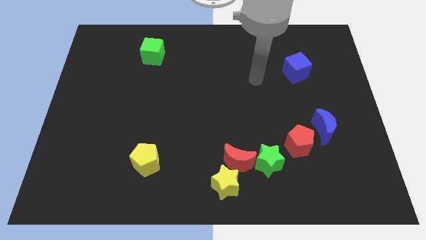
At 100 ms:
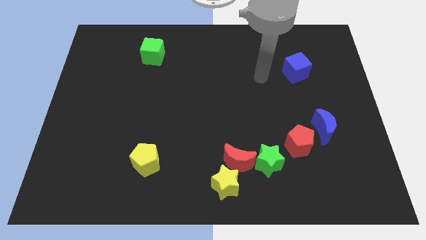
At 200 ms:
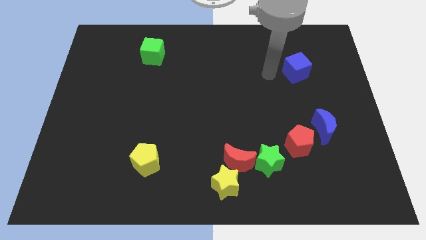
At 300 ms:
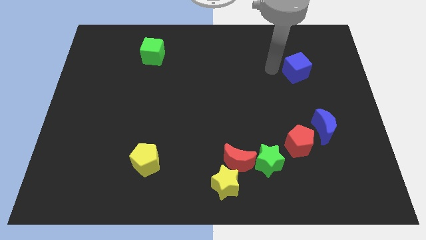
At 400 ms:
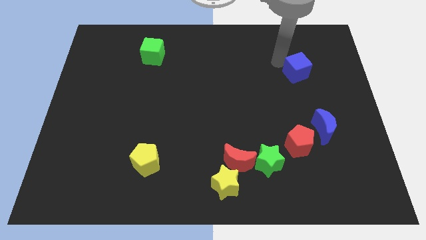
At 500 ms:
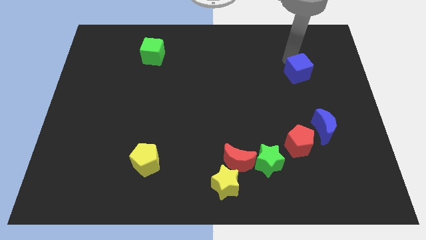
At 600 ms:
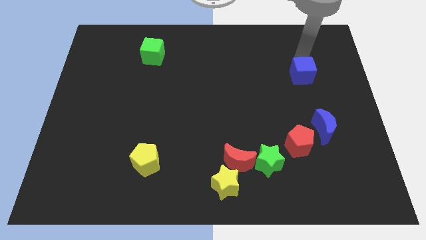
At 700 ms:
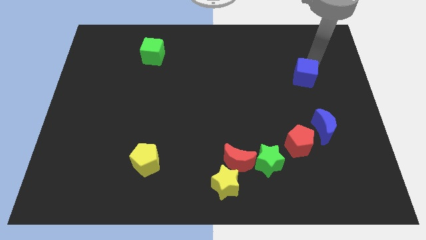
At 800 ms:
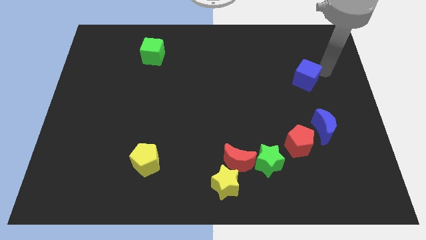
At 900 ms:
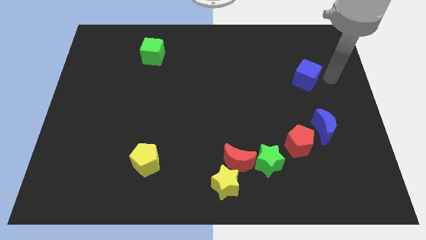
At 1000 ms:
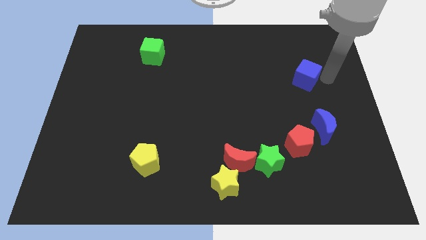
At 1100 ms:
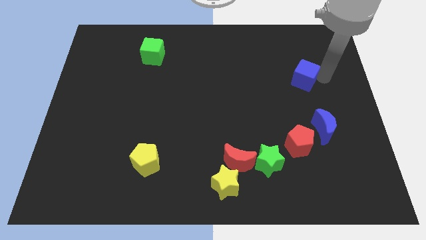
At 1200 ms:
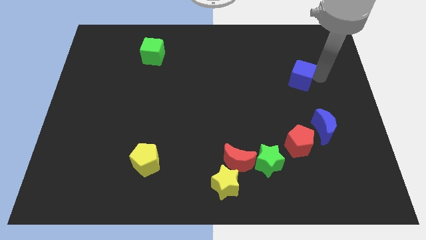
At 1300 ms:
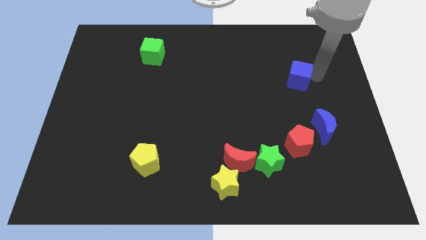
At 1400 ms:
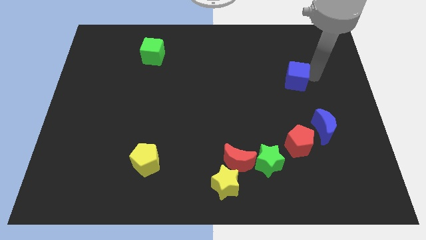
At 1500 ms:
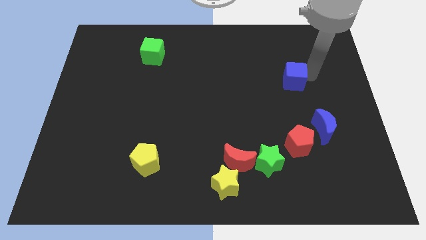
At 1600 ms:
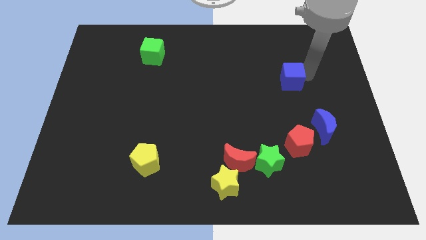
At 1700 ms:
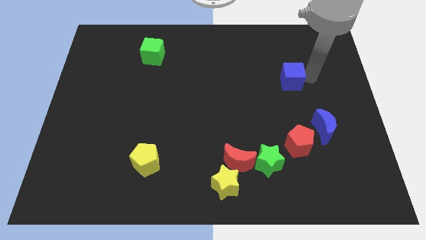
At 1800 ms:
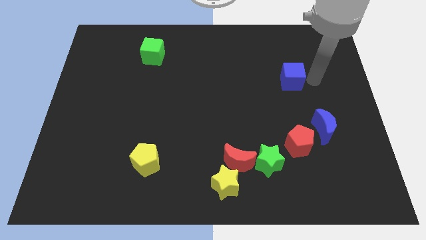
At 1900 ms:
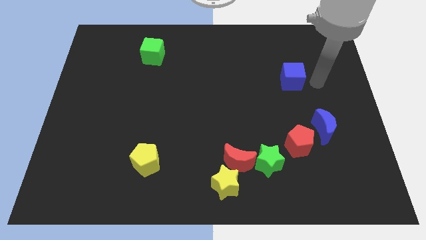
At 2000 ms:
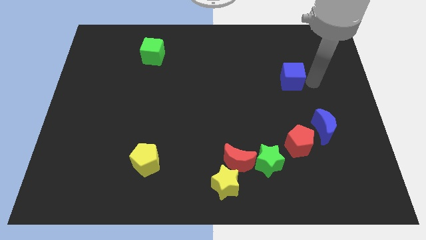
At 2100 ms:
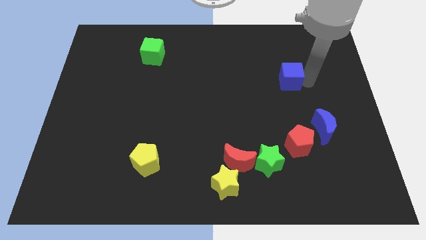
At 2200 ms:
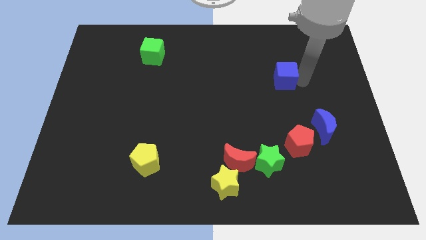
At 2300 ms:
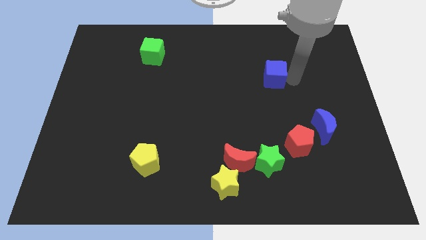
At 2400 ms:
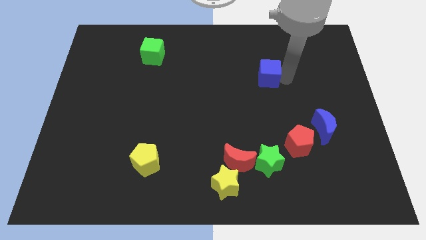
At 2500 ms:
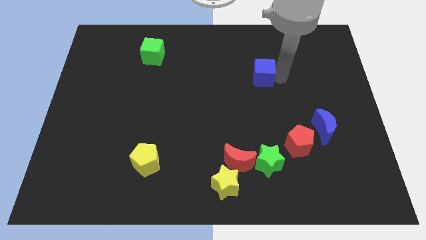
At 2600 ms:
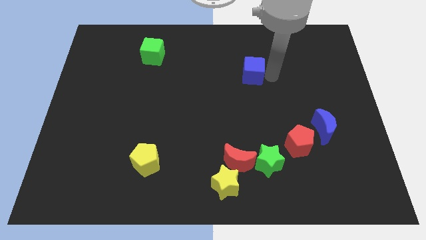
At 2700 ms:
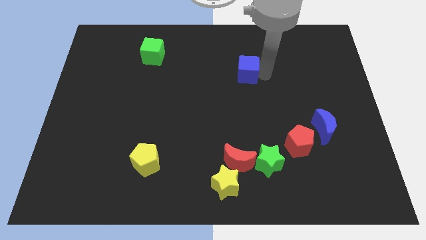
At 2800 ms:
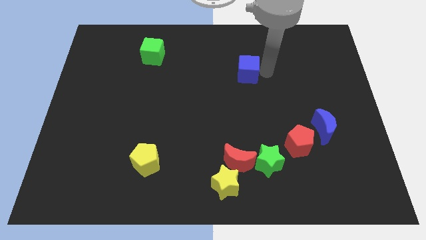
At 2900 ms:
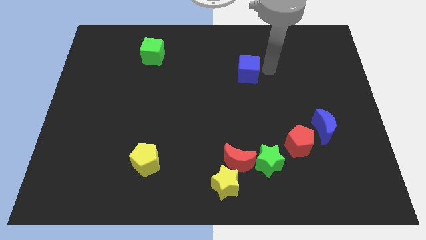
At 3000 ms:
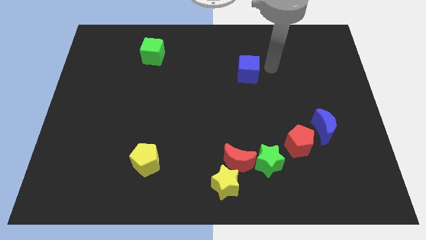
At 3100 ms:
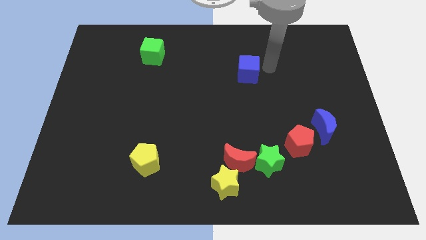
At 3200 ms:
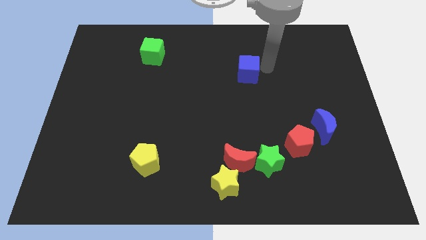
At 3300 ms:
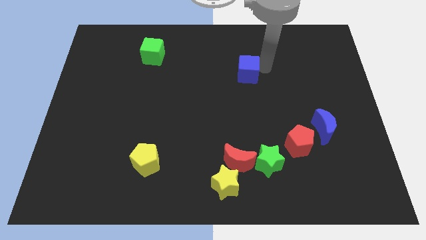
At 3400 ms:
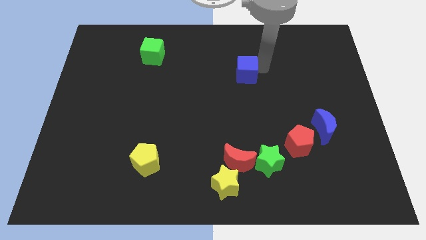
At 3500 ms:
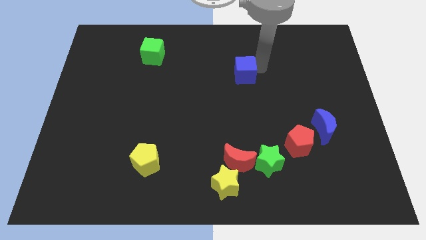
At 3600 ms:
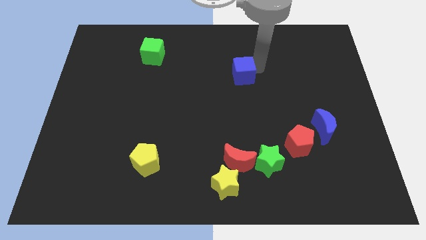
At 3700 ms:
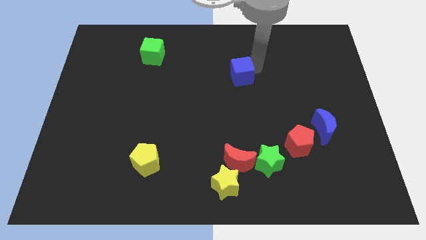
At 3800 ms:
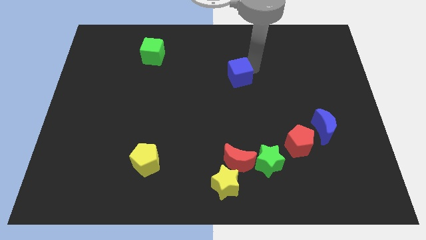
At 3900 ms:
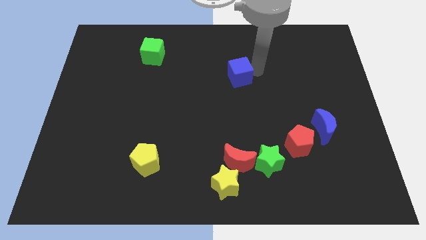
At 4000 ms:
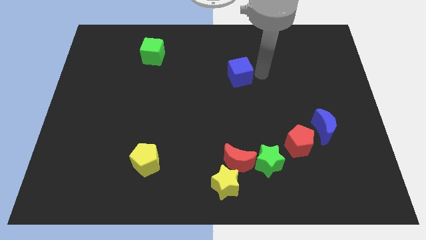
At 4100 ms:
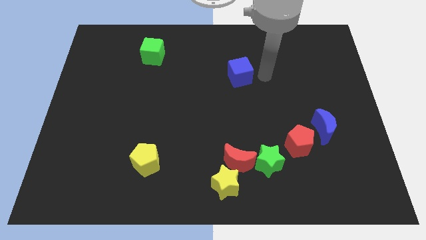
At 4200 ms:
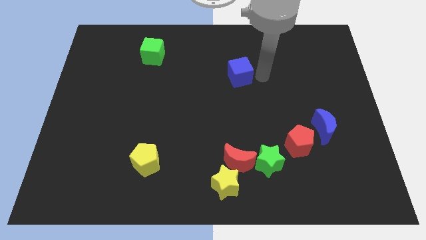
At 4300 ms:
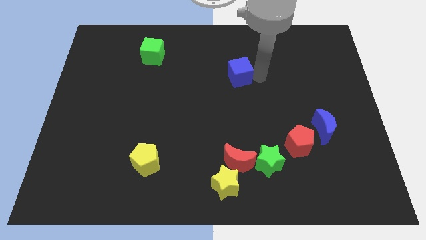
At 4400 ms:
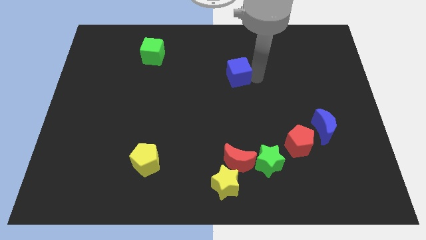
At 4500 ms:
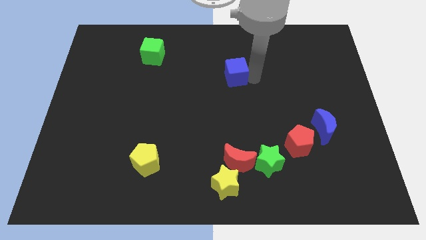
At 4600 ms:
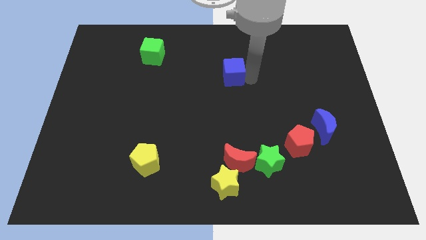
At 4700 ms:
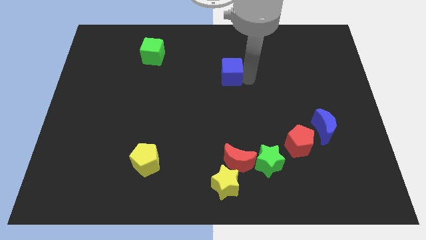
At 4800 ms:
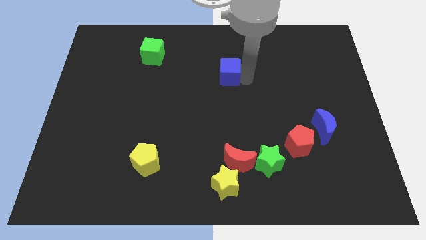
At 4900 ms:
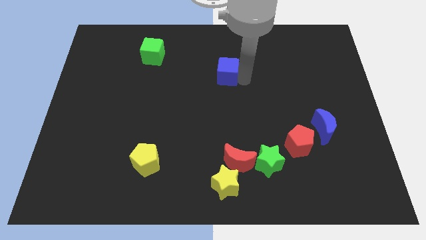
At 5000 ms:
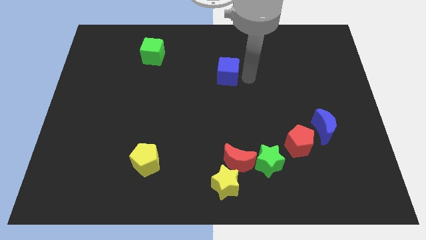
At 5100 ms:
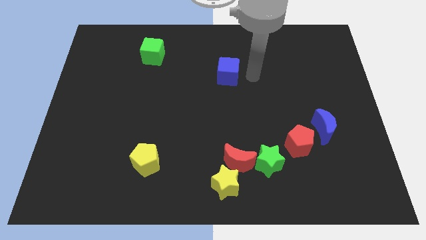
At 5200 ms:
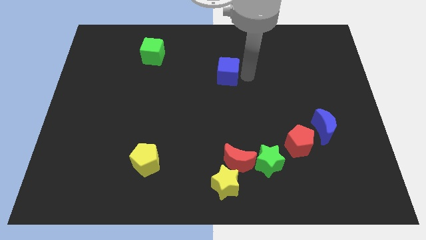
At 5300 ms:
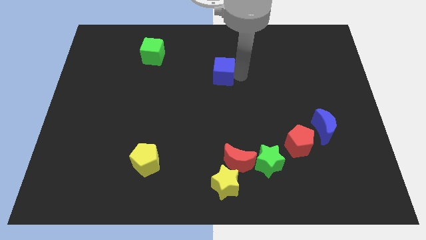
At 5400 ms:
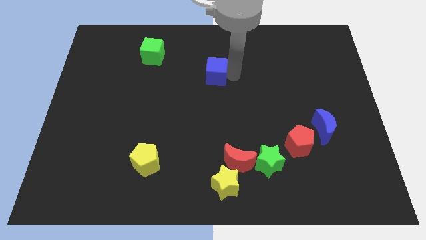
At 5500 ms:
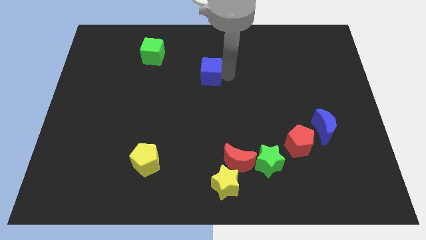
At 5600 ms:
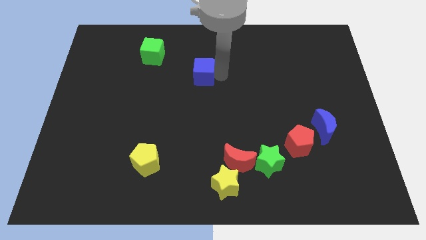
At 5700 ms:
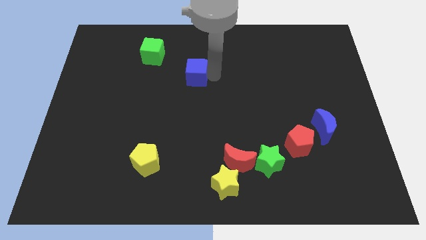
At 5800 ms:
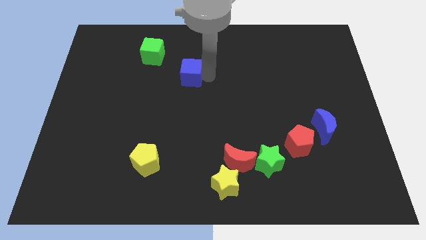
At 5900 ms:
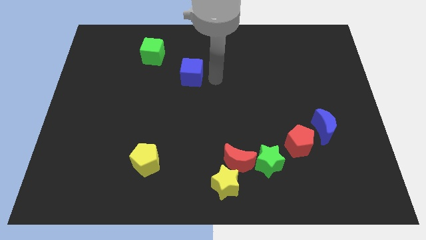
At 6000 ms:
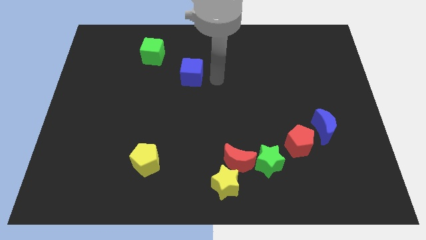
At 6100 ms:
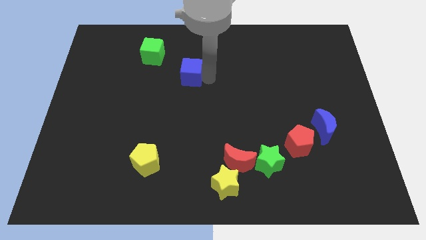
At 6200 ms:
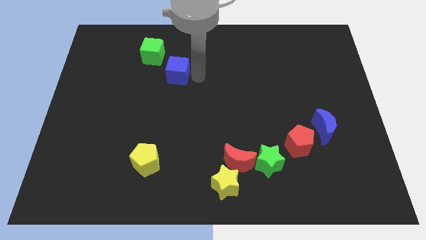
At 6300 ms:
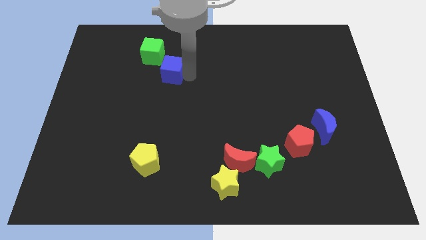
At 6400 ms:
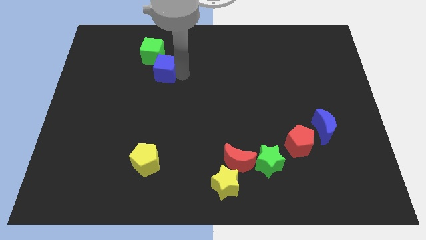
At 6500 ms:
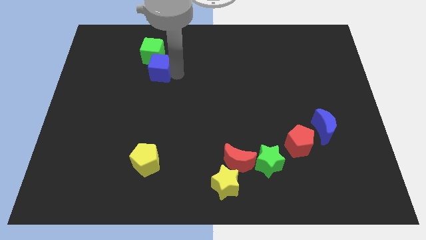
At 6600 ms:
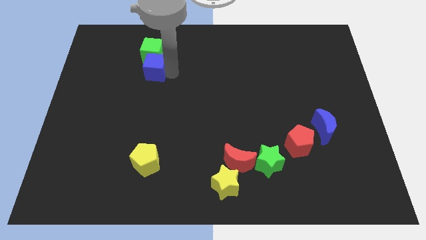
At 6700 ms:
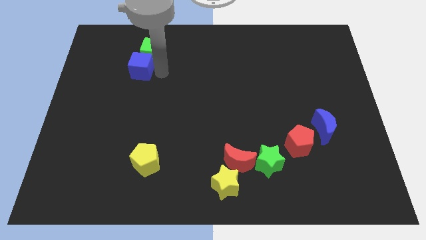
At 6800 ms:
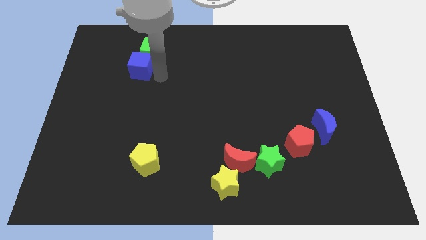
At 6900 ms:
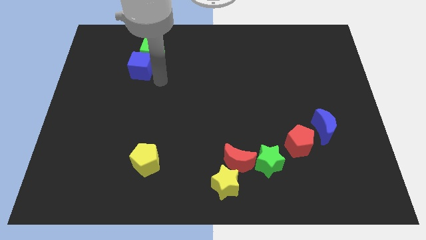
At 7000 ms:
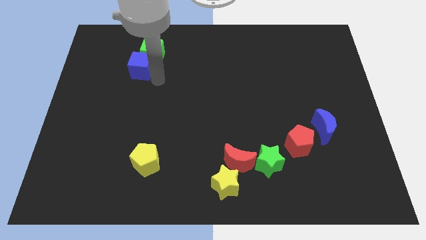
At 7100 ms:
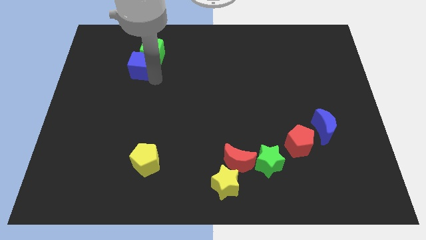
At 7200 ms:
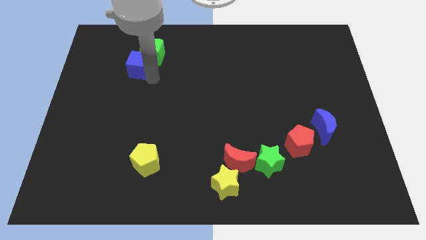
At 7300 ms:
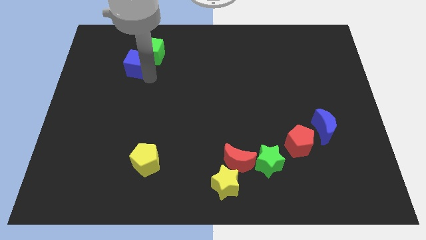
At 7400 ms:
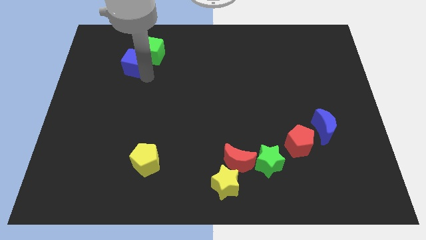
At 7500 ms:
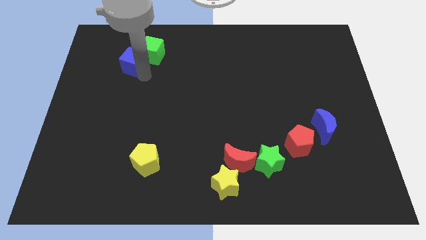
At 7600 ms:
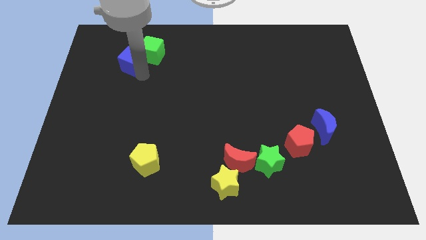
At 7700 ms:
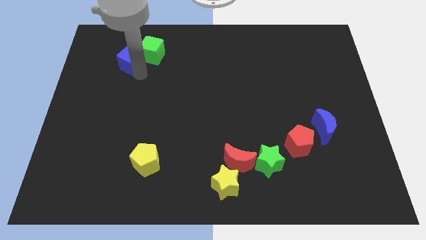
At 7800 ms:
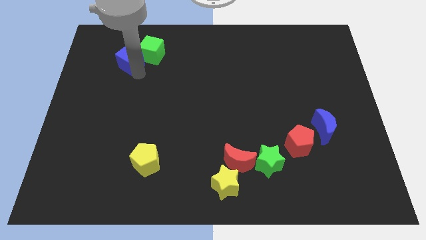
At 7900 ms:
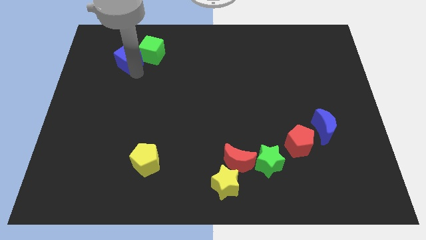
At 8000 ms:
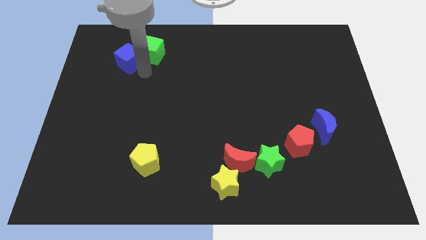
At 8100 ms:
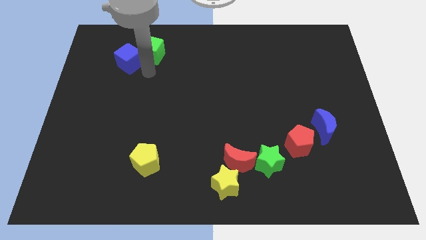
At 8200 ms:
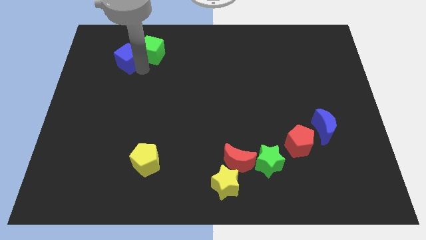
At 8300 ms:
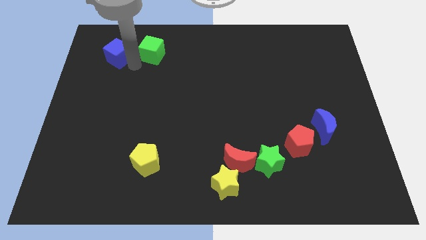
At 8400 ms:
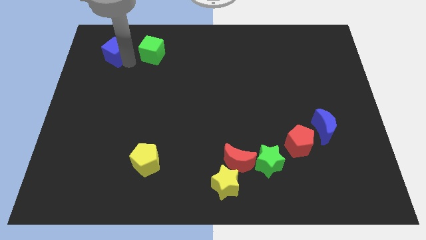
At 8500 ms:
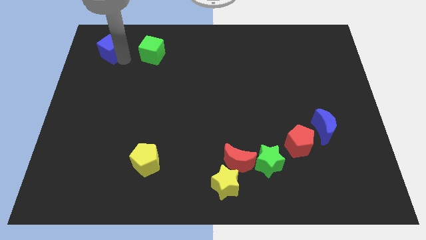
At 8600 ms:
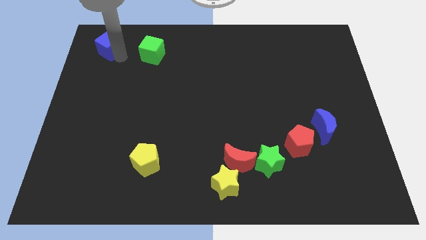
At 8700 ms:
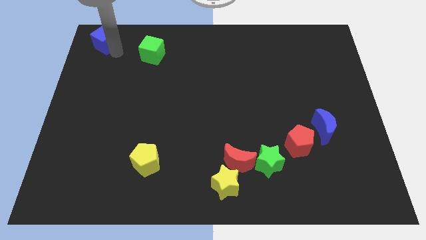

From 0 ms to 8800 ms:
put the blue cube to the upper left corner
